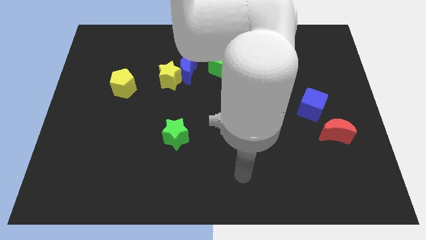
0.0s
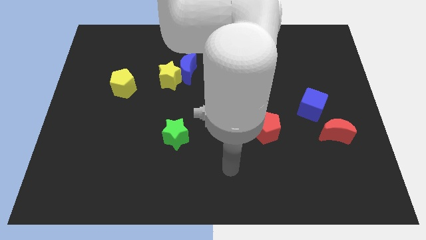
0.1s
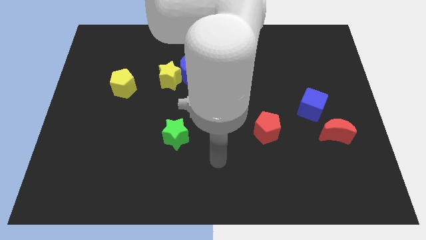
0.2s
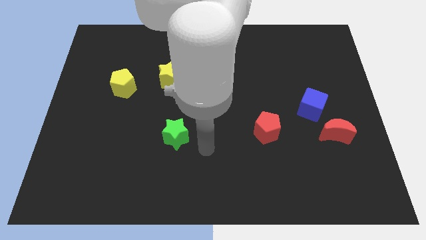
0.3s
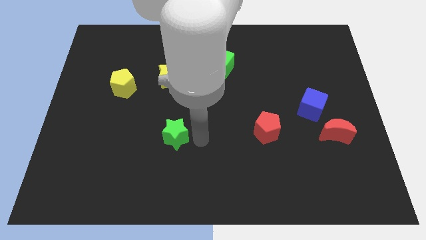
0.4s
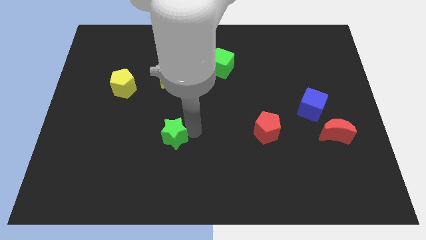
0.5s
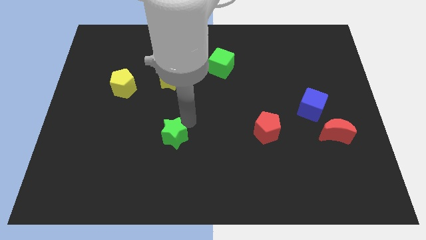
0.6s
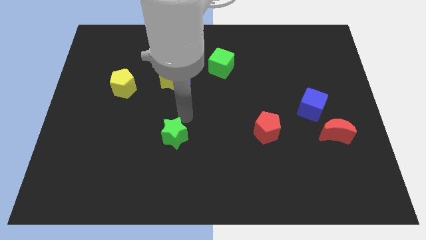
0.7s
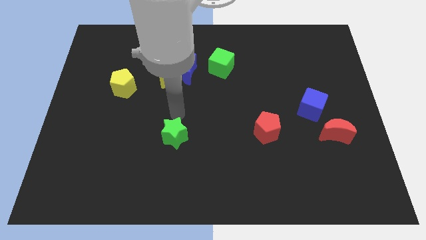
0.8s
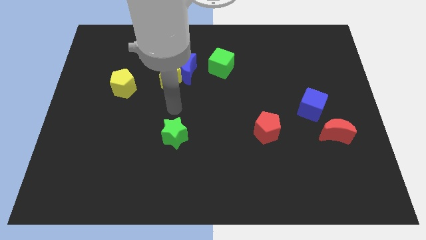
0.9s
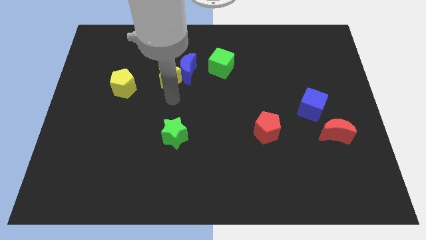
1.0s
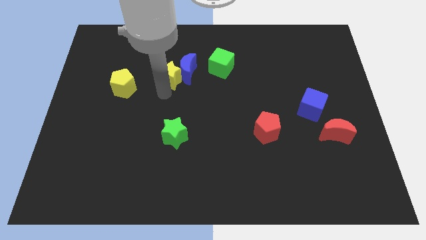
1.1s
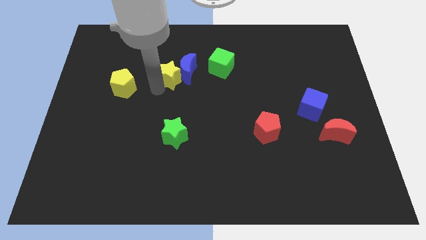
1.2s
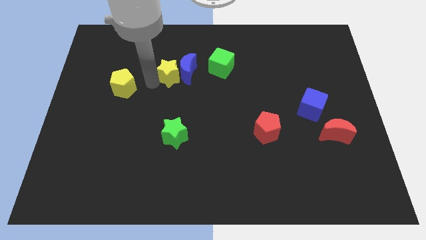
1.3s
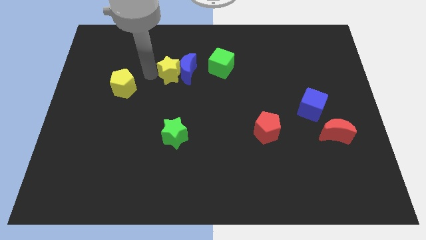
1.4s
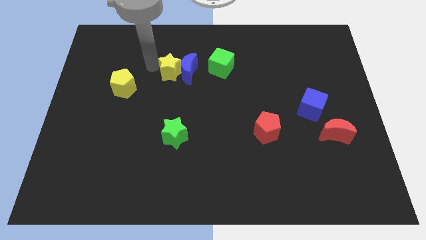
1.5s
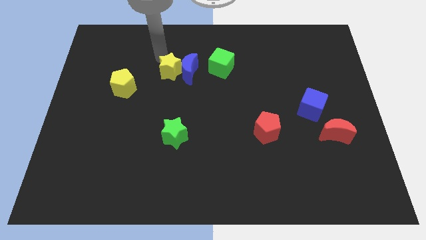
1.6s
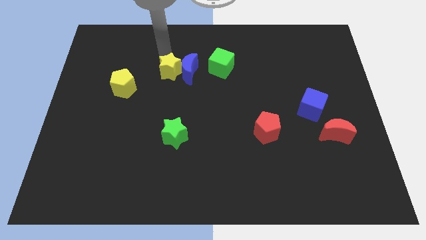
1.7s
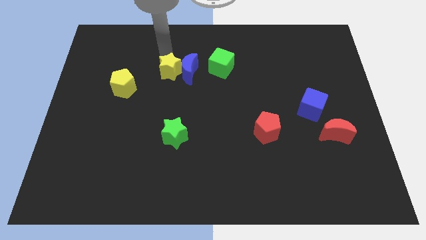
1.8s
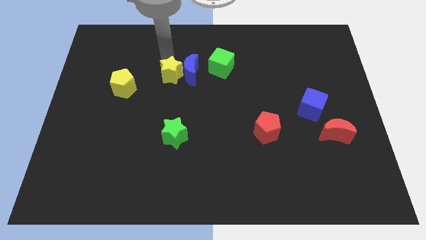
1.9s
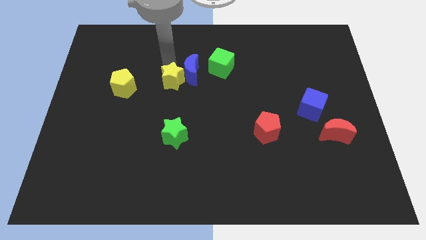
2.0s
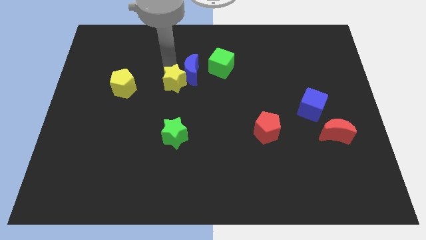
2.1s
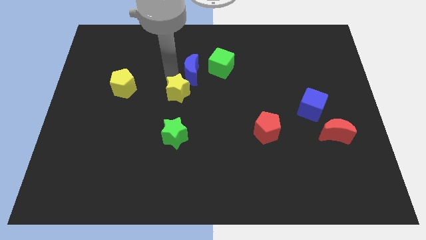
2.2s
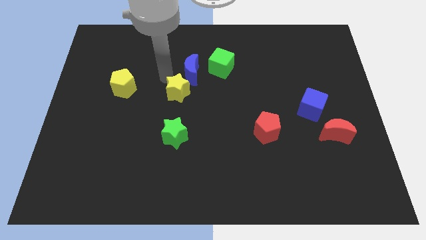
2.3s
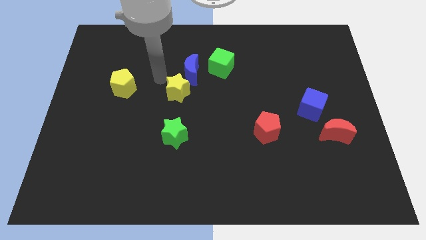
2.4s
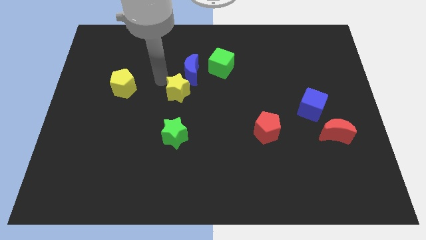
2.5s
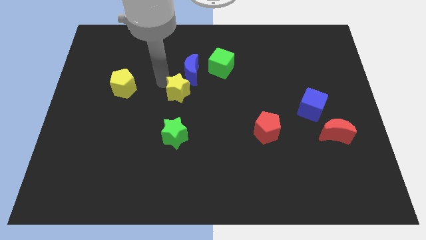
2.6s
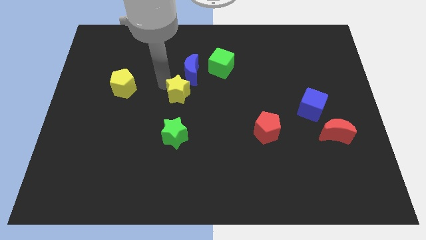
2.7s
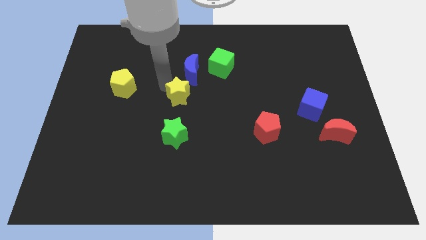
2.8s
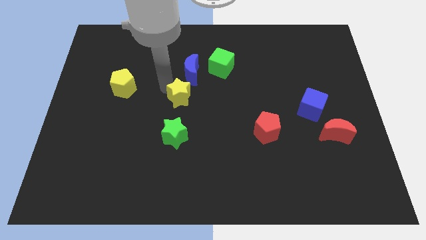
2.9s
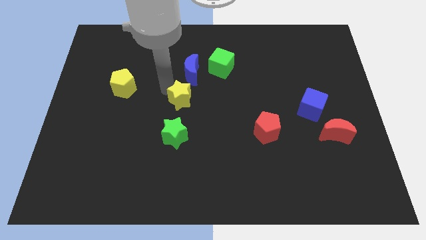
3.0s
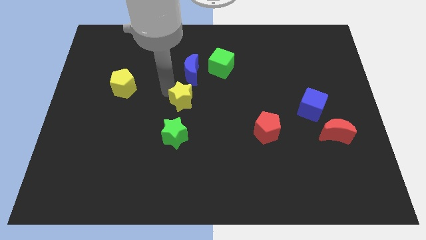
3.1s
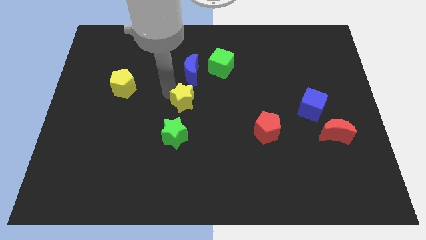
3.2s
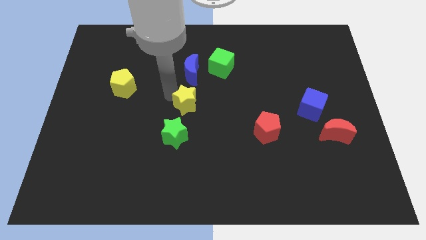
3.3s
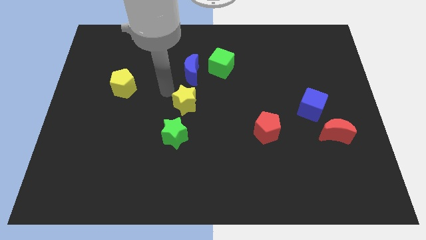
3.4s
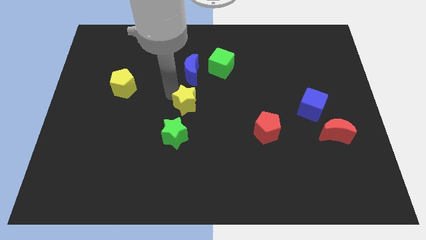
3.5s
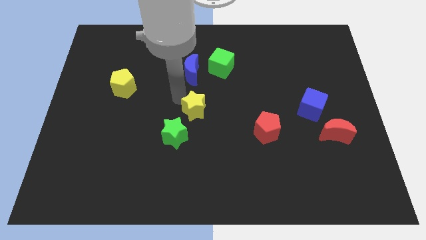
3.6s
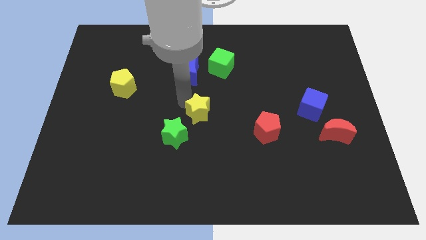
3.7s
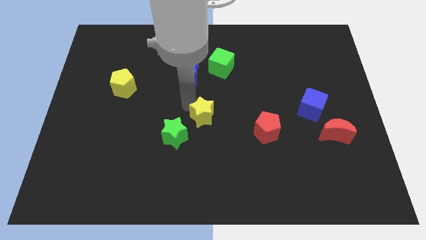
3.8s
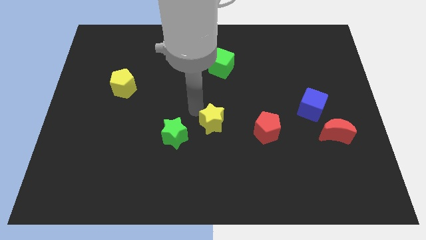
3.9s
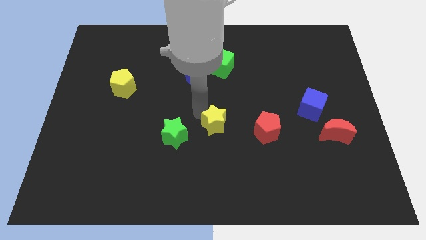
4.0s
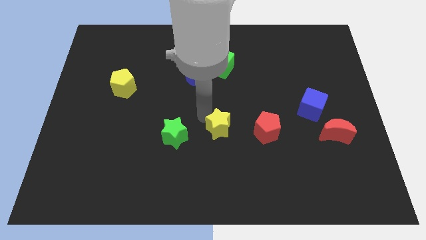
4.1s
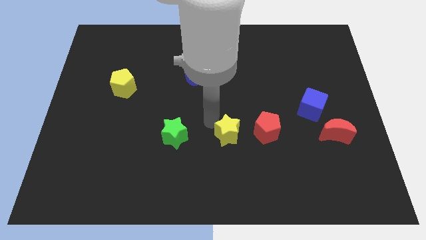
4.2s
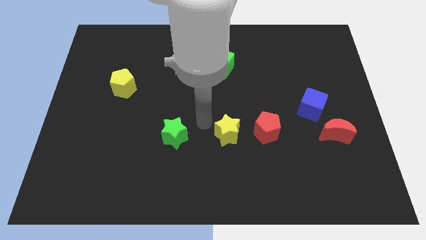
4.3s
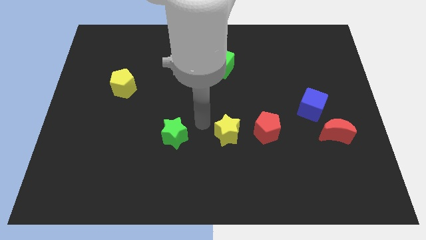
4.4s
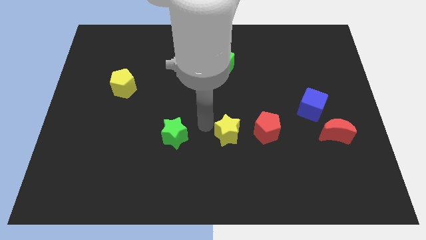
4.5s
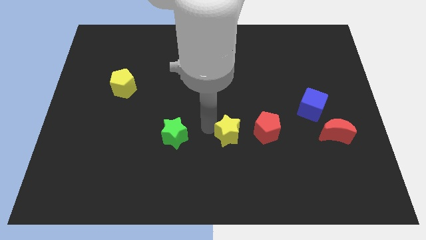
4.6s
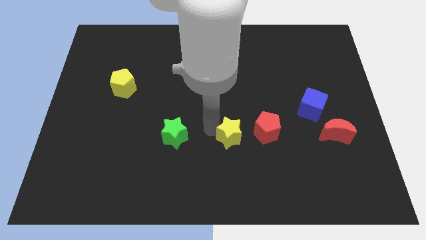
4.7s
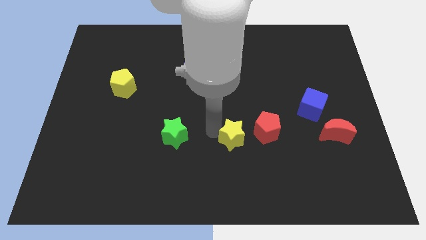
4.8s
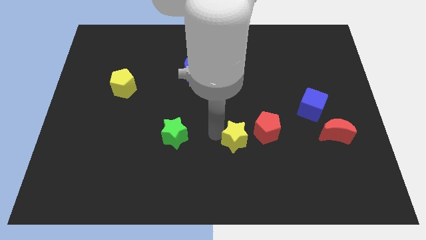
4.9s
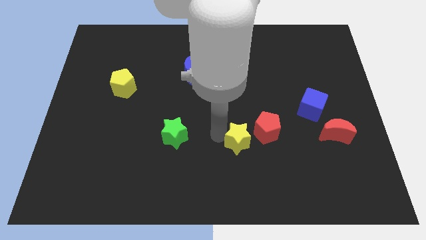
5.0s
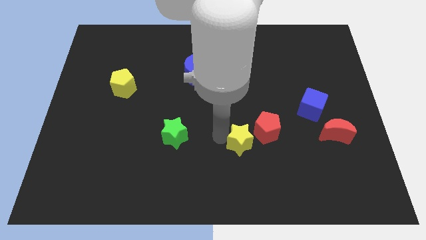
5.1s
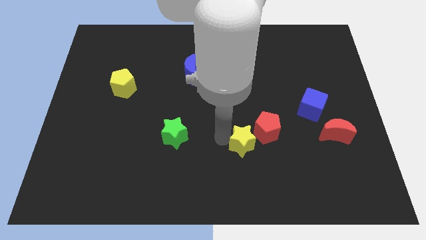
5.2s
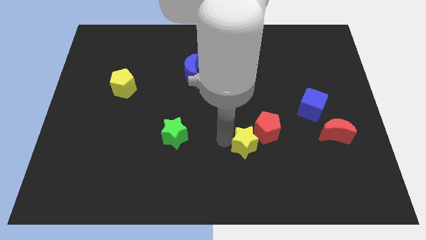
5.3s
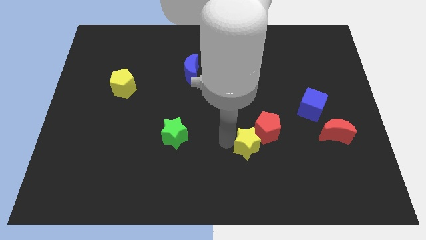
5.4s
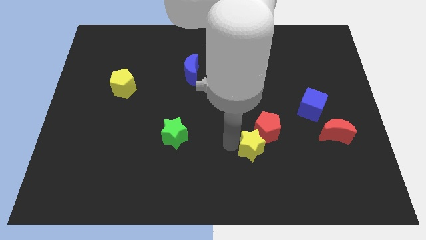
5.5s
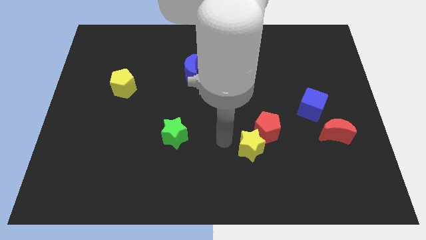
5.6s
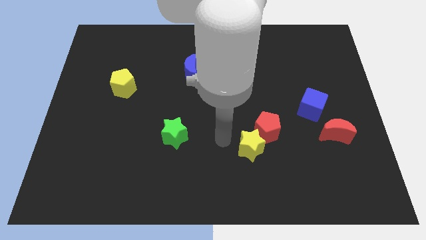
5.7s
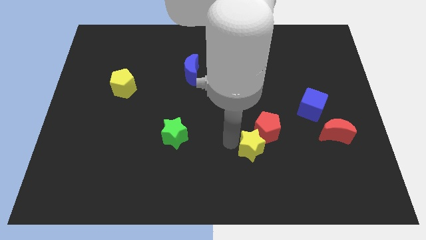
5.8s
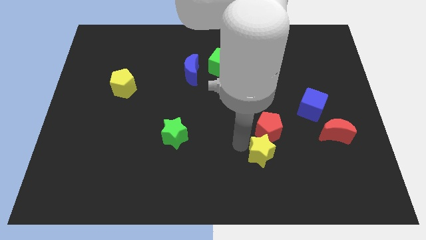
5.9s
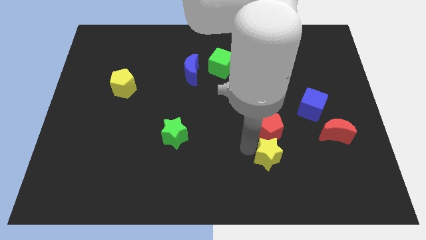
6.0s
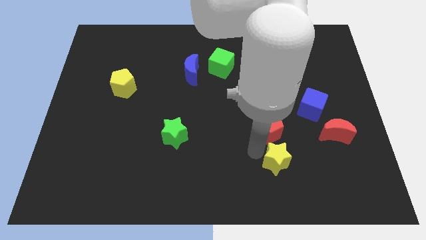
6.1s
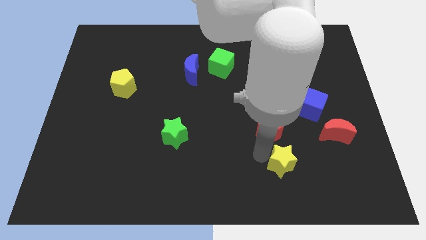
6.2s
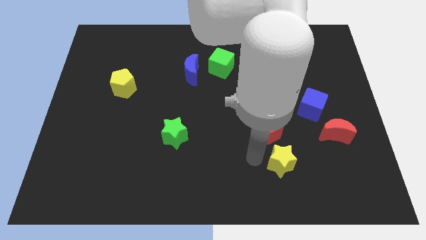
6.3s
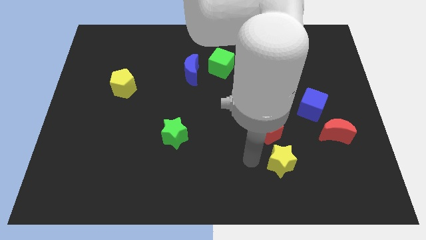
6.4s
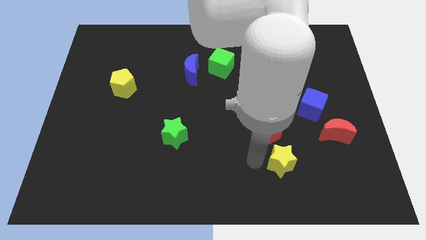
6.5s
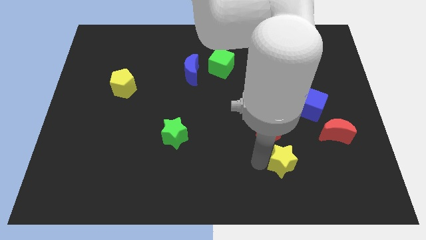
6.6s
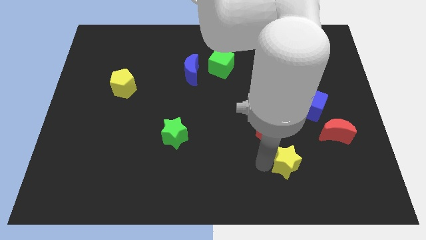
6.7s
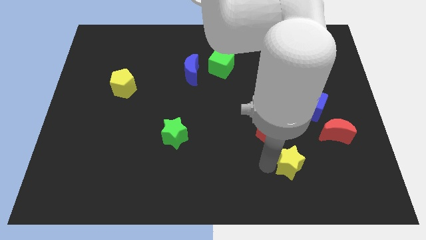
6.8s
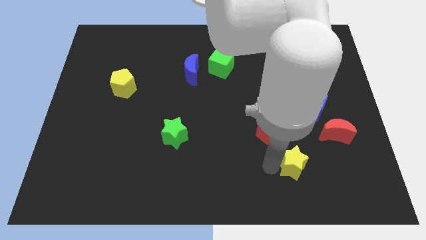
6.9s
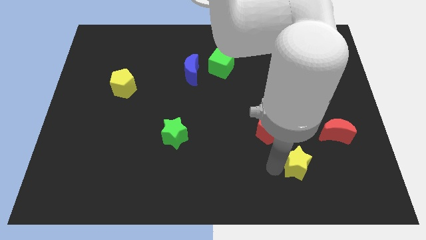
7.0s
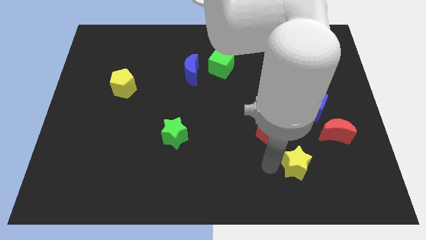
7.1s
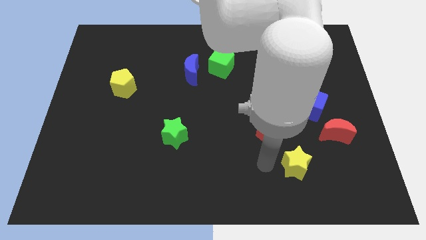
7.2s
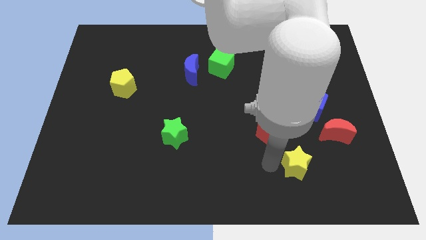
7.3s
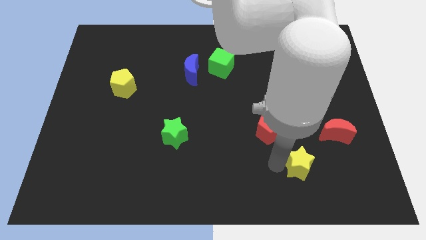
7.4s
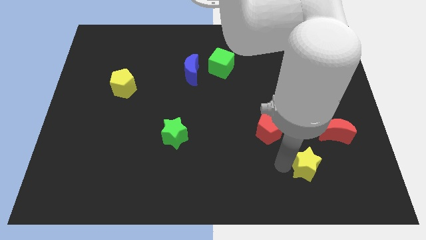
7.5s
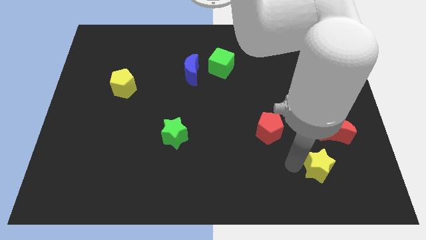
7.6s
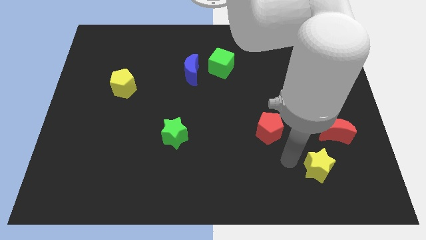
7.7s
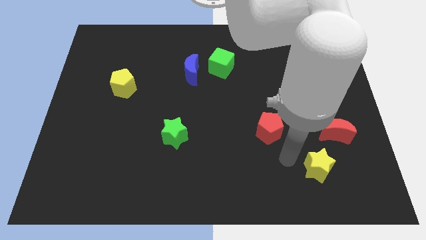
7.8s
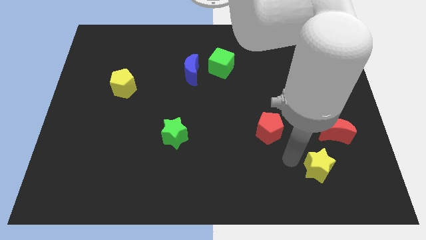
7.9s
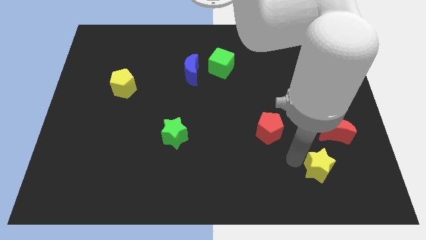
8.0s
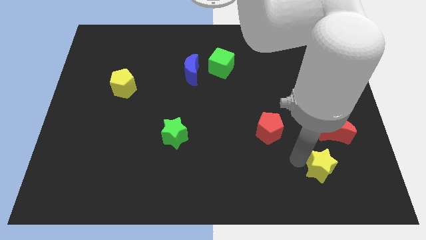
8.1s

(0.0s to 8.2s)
move the yellow star to the bottom of the red moon
